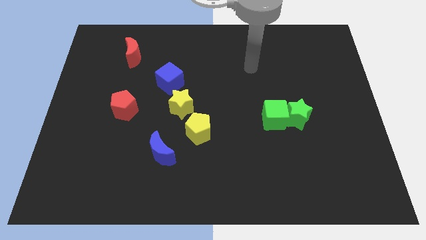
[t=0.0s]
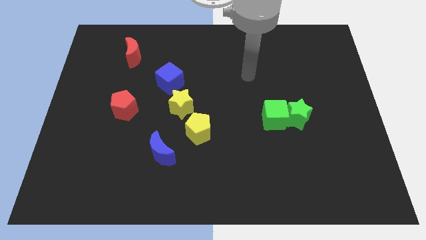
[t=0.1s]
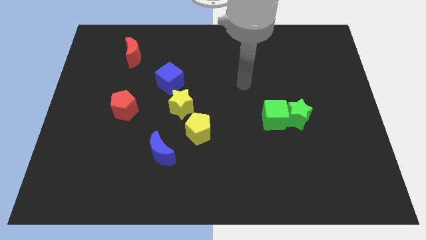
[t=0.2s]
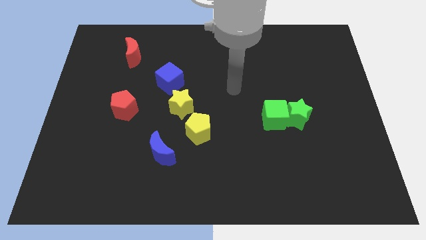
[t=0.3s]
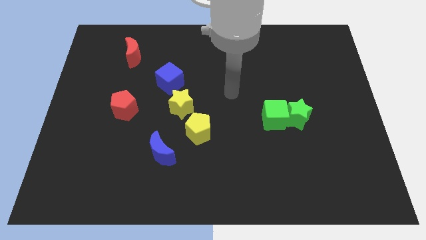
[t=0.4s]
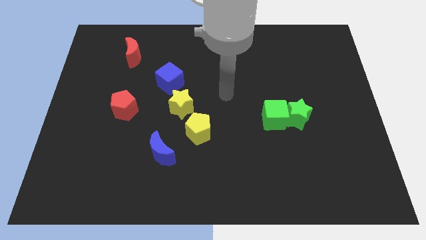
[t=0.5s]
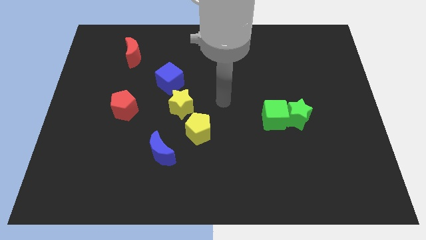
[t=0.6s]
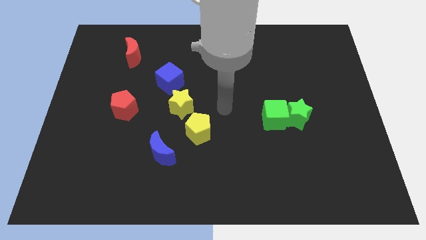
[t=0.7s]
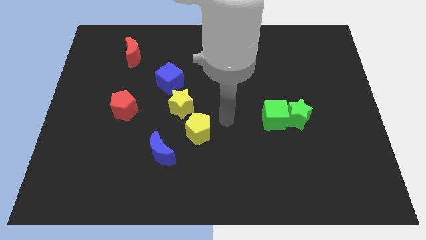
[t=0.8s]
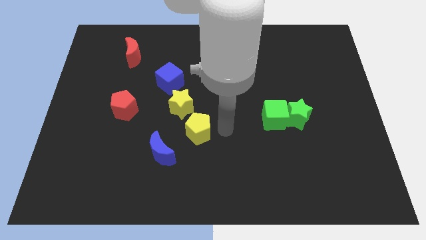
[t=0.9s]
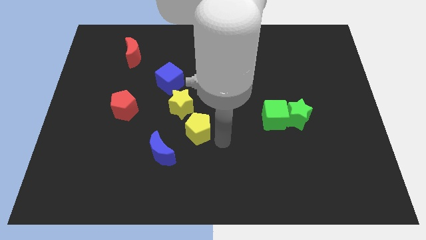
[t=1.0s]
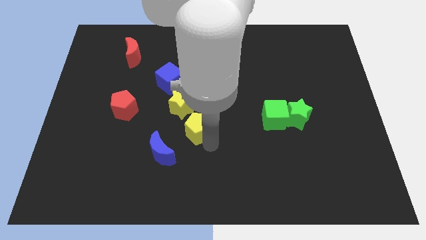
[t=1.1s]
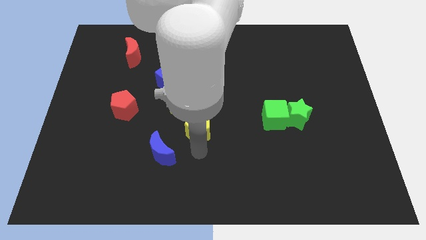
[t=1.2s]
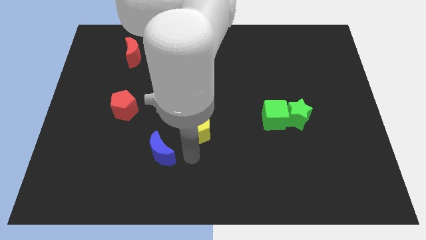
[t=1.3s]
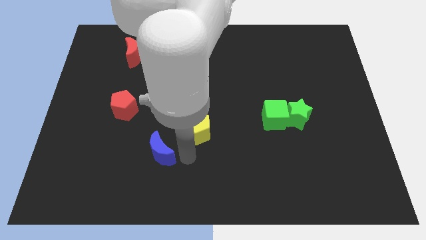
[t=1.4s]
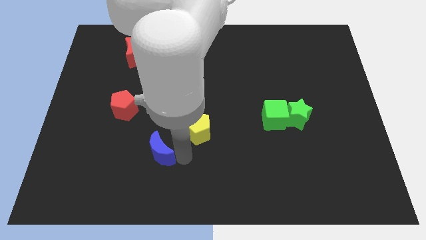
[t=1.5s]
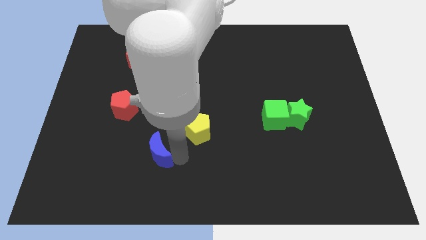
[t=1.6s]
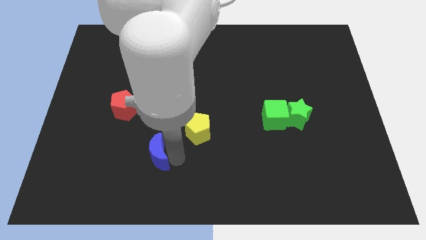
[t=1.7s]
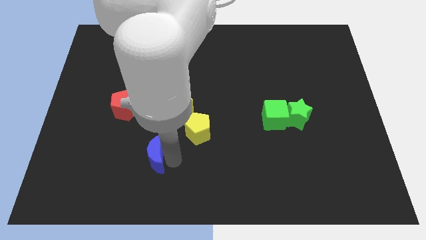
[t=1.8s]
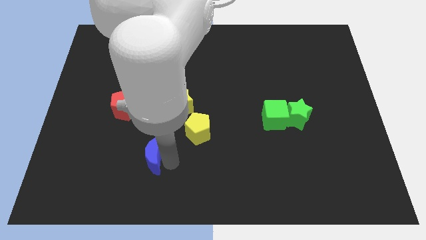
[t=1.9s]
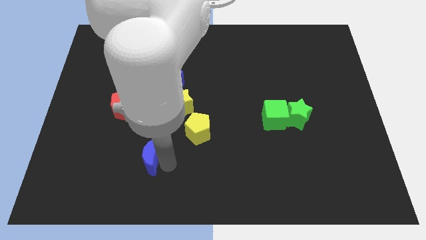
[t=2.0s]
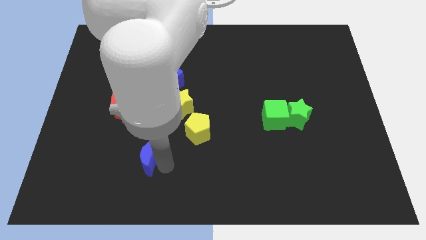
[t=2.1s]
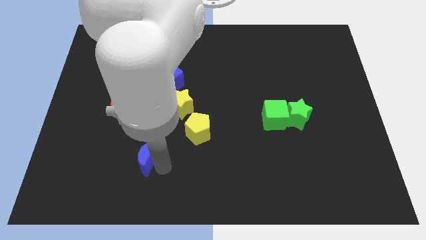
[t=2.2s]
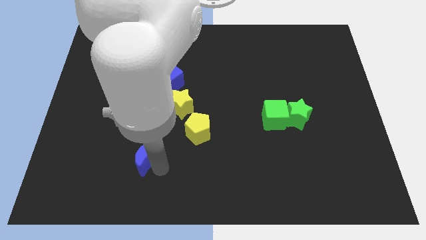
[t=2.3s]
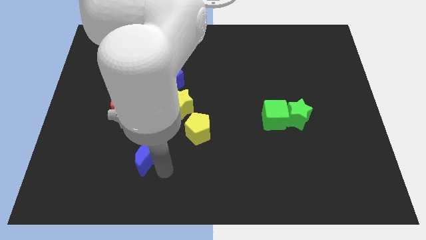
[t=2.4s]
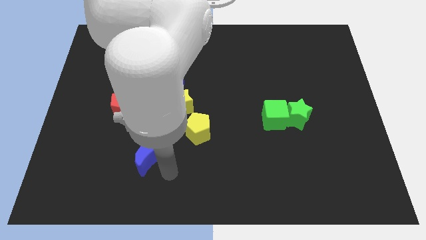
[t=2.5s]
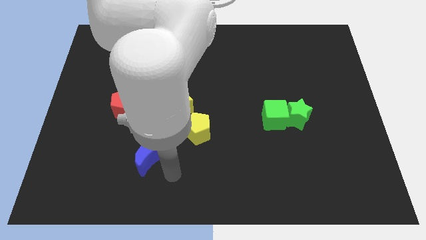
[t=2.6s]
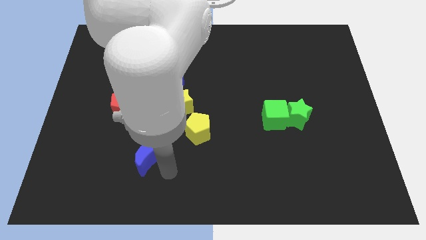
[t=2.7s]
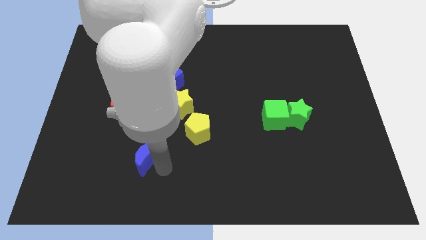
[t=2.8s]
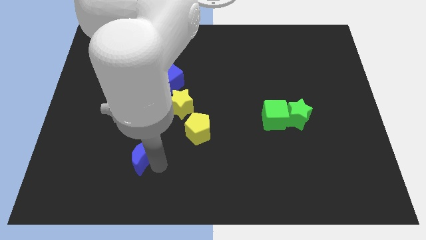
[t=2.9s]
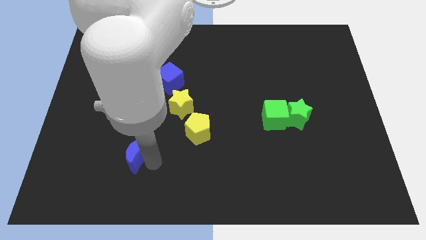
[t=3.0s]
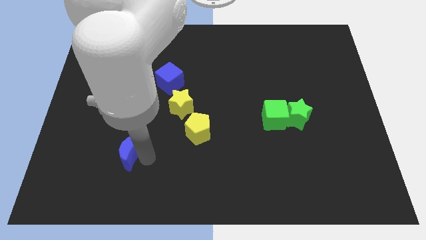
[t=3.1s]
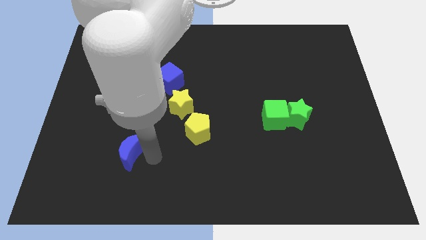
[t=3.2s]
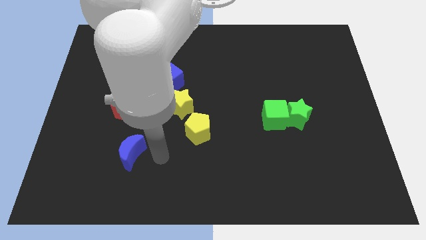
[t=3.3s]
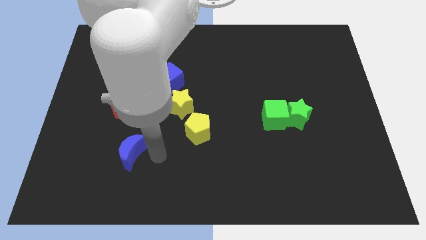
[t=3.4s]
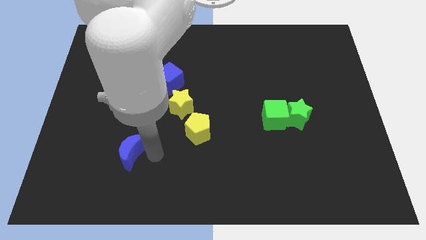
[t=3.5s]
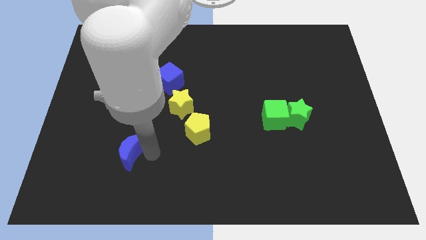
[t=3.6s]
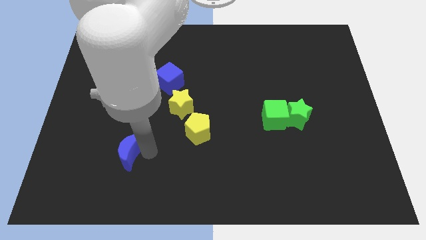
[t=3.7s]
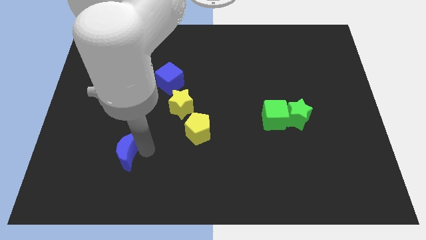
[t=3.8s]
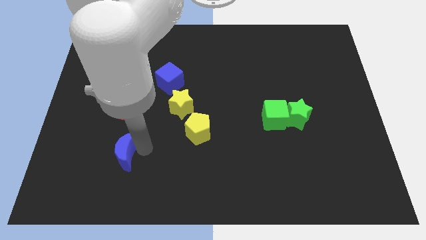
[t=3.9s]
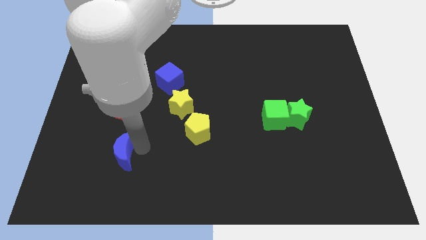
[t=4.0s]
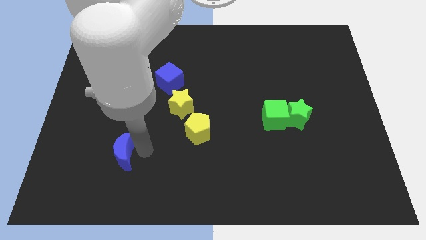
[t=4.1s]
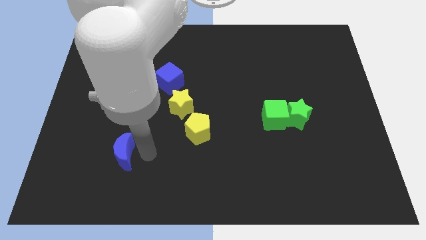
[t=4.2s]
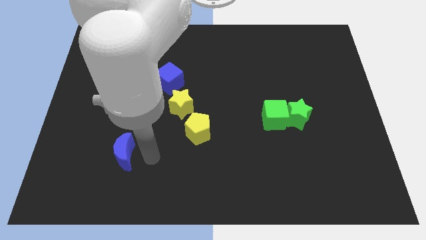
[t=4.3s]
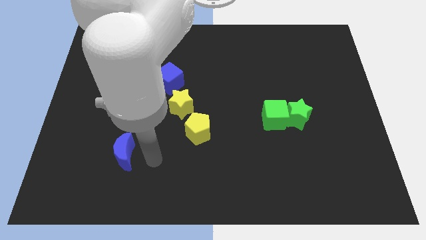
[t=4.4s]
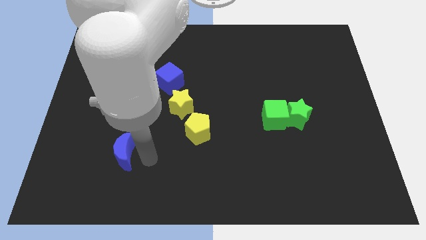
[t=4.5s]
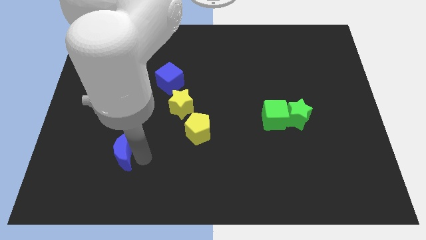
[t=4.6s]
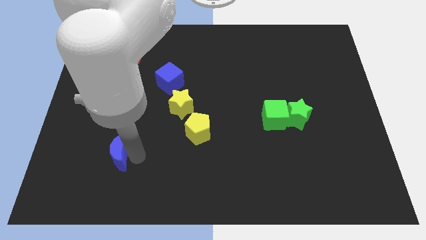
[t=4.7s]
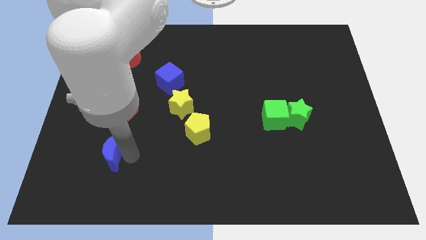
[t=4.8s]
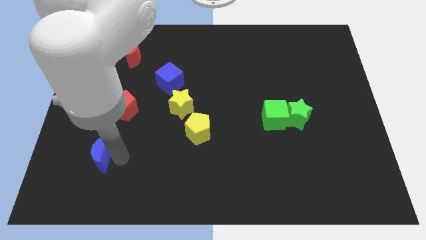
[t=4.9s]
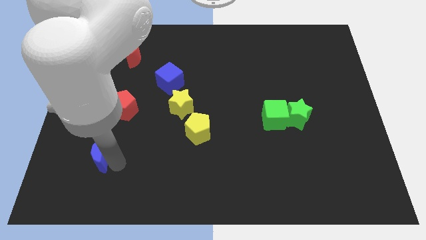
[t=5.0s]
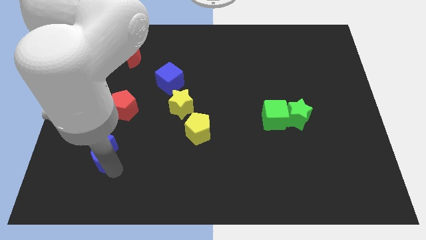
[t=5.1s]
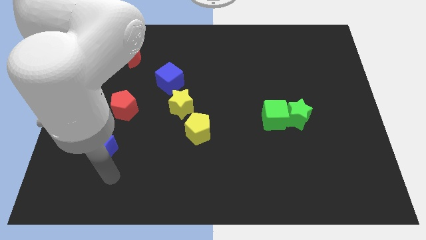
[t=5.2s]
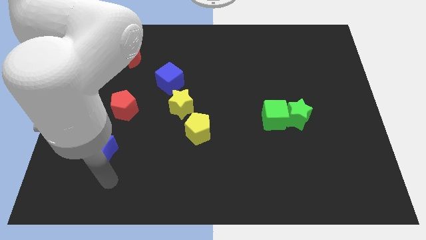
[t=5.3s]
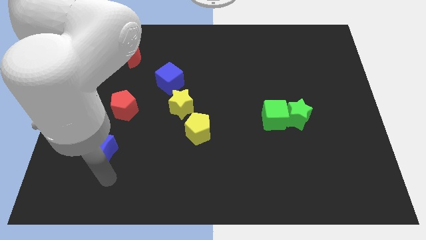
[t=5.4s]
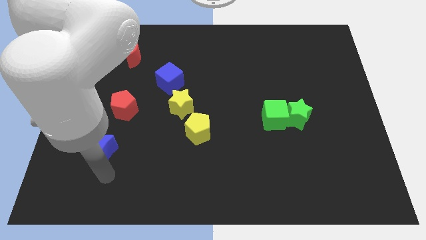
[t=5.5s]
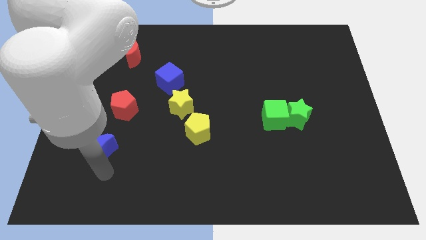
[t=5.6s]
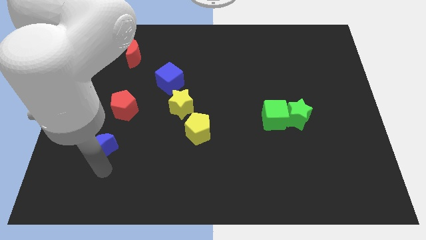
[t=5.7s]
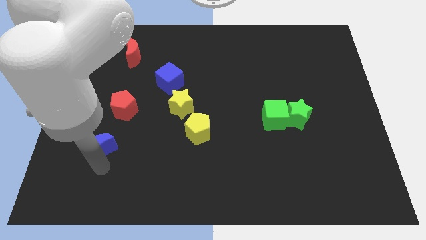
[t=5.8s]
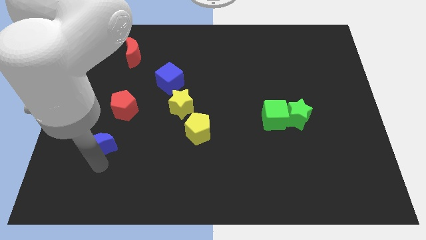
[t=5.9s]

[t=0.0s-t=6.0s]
slide the blue moon a little bit up and to the left

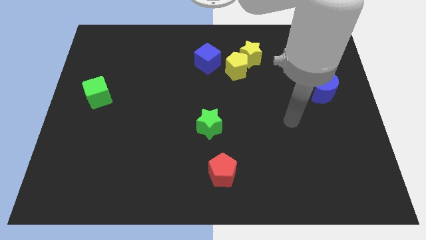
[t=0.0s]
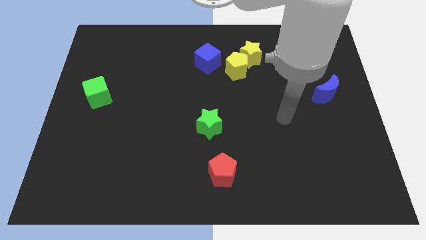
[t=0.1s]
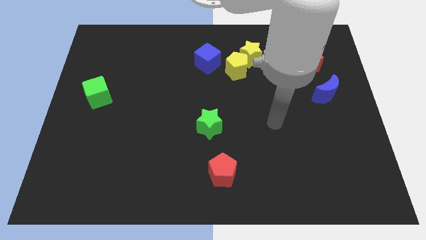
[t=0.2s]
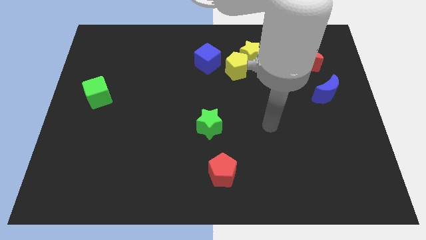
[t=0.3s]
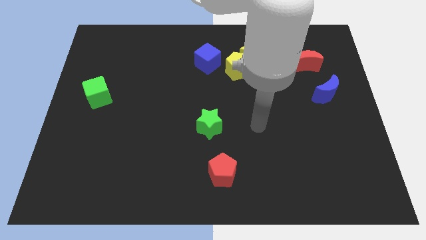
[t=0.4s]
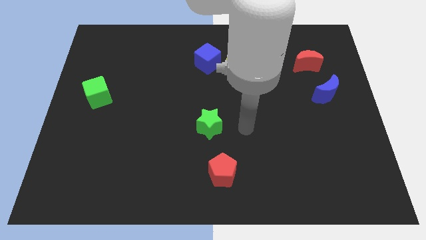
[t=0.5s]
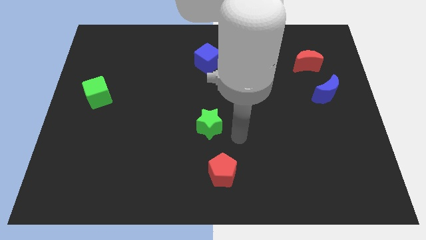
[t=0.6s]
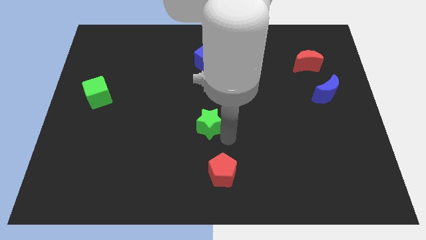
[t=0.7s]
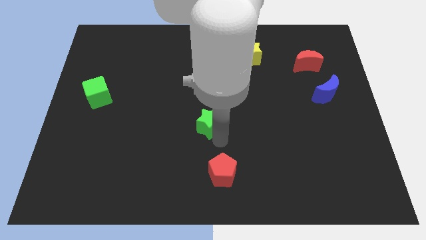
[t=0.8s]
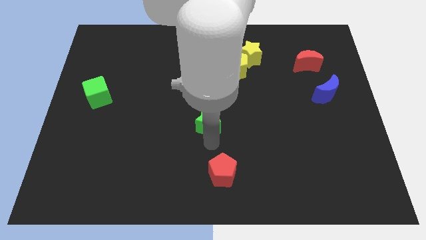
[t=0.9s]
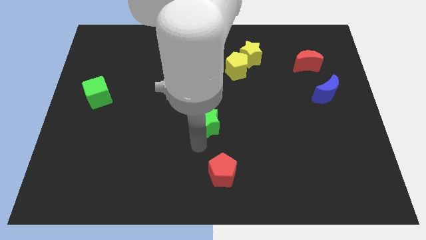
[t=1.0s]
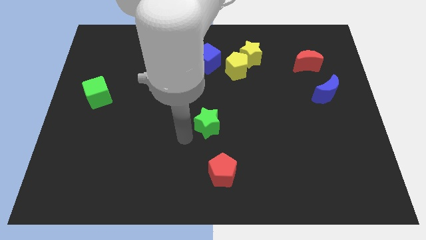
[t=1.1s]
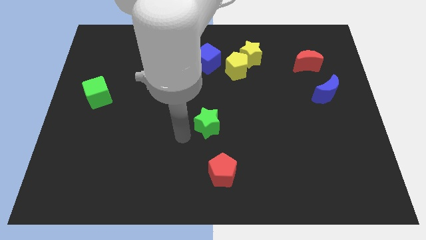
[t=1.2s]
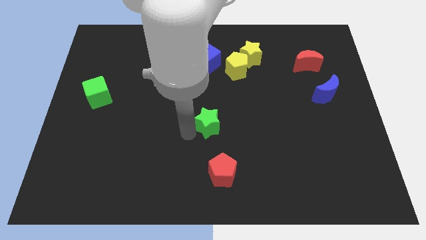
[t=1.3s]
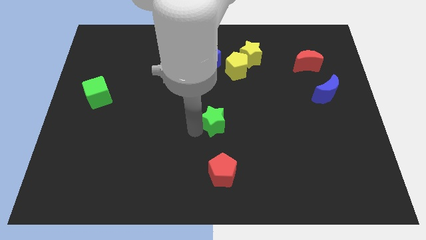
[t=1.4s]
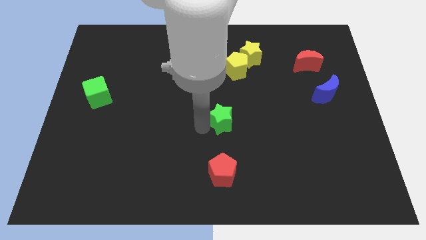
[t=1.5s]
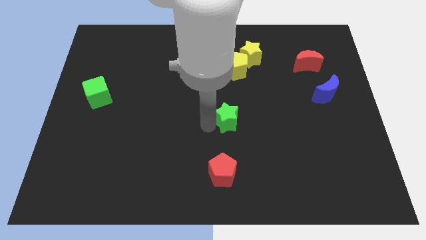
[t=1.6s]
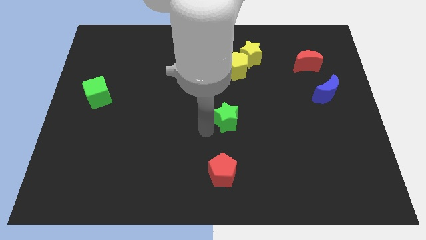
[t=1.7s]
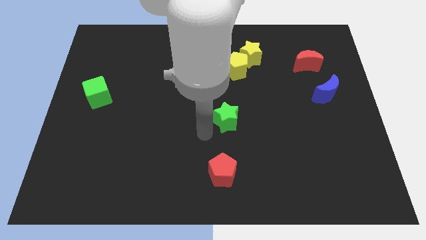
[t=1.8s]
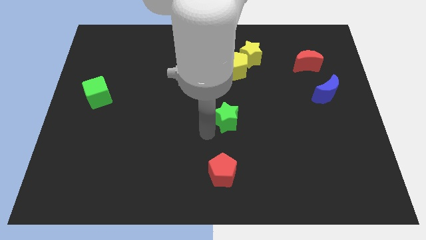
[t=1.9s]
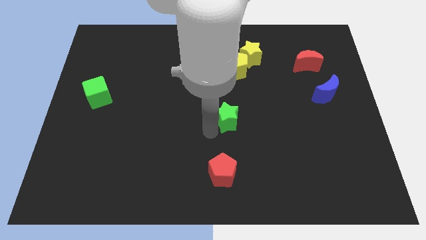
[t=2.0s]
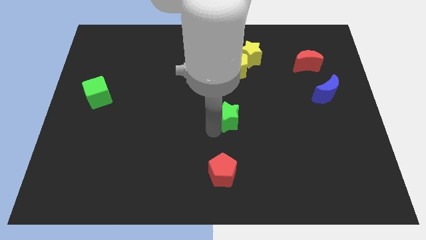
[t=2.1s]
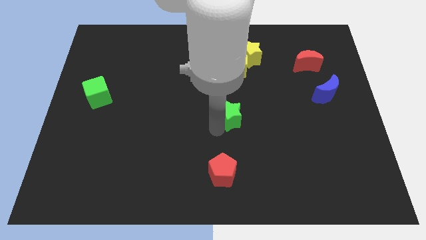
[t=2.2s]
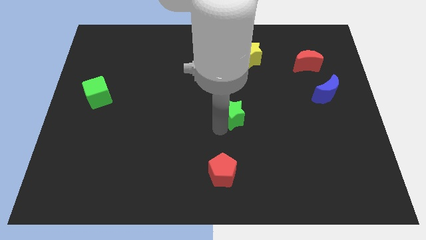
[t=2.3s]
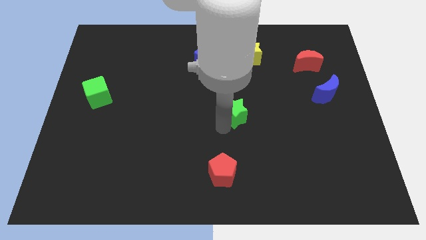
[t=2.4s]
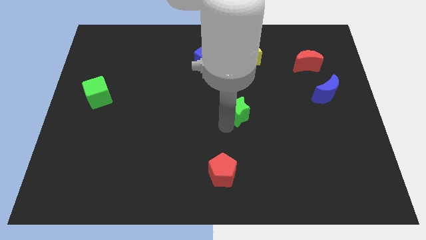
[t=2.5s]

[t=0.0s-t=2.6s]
push the green star up and right a little
